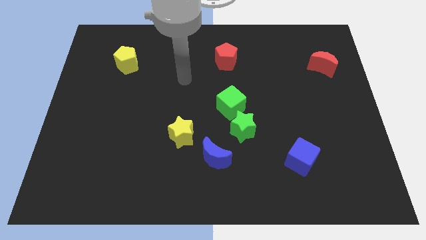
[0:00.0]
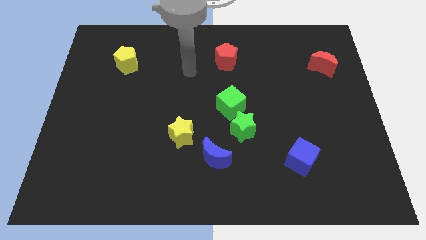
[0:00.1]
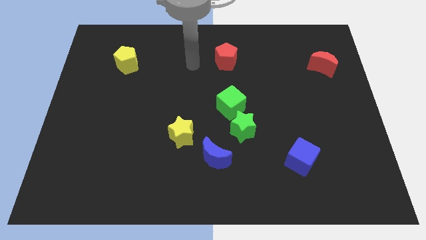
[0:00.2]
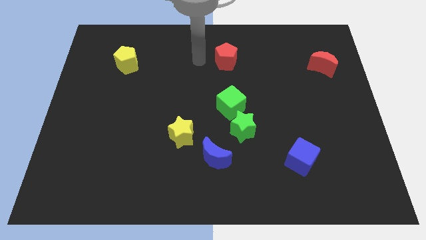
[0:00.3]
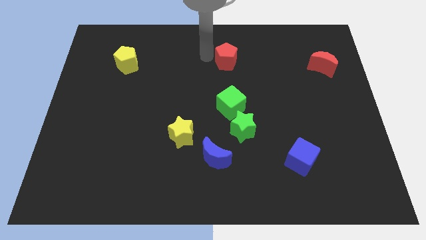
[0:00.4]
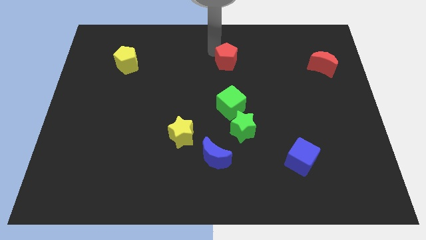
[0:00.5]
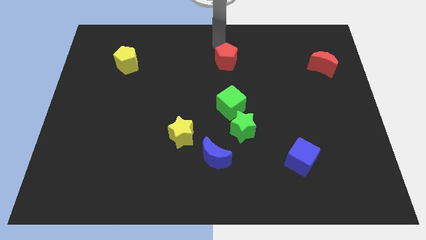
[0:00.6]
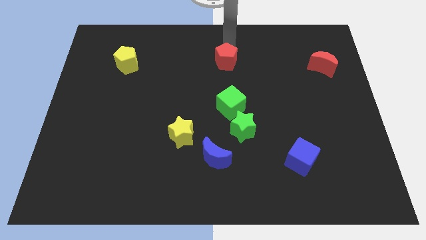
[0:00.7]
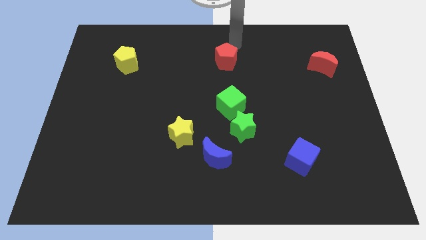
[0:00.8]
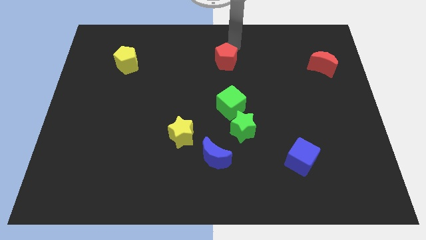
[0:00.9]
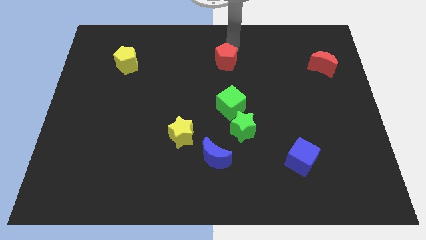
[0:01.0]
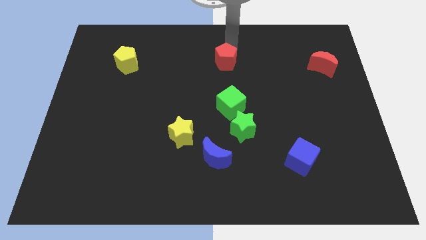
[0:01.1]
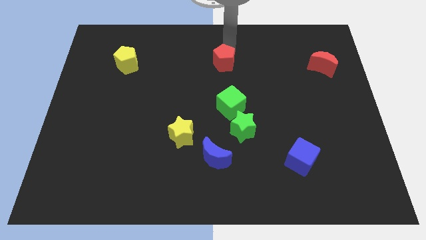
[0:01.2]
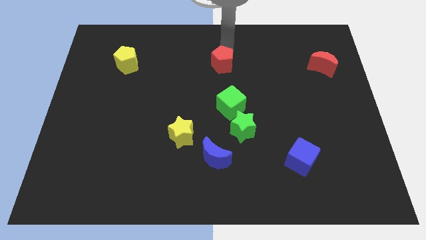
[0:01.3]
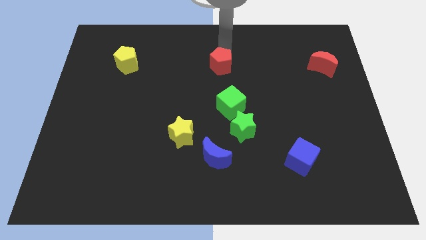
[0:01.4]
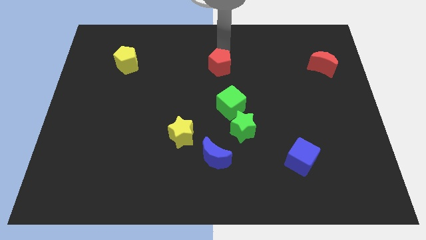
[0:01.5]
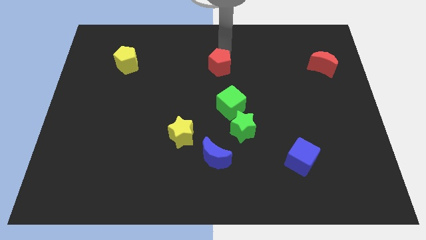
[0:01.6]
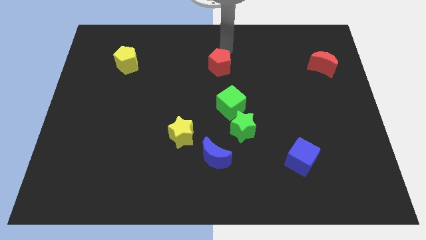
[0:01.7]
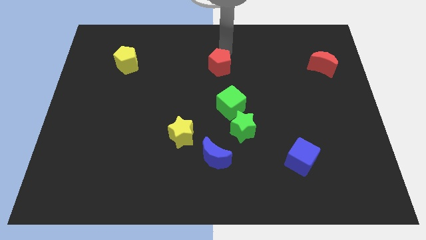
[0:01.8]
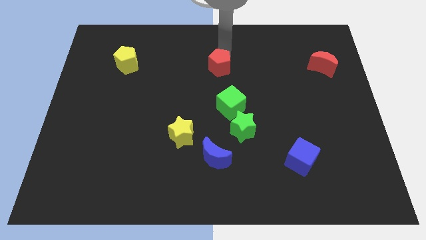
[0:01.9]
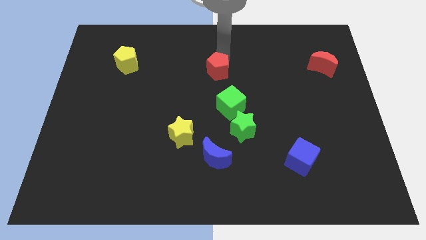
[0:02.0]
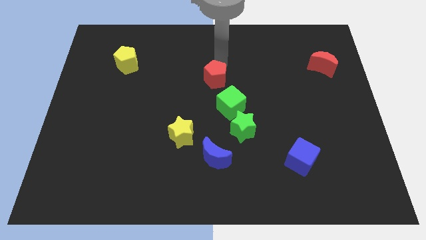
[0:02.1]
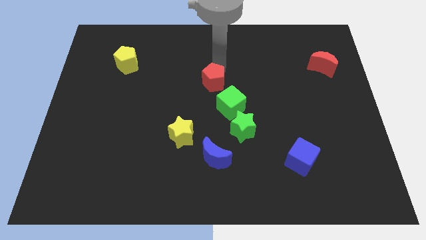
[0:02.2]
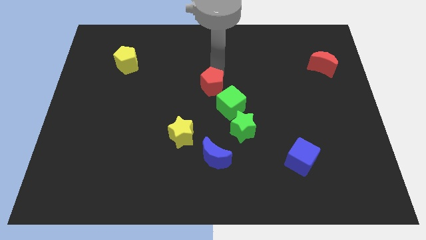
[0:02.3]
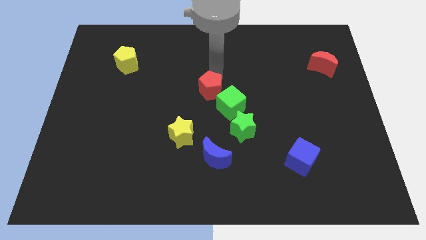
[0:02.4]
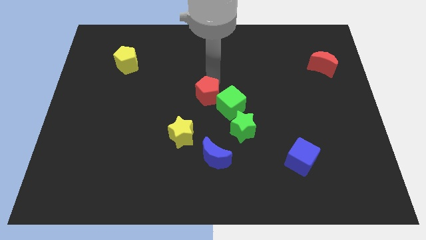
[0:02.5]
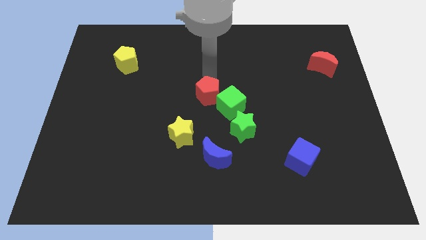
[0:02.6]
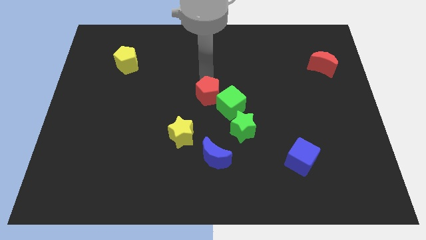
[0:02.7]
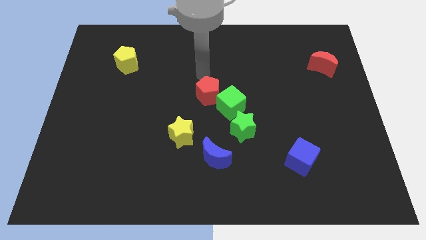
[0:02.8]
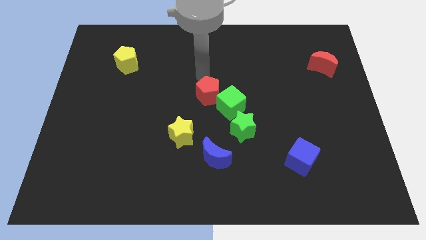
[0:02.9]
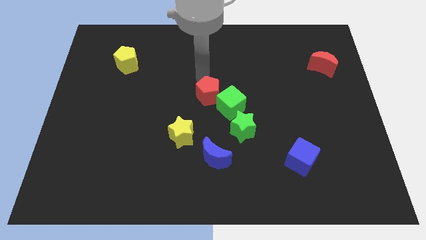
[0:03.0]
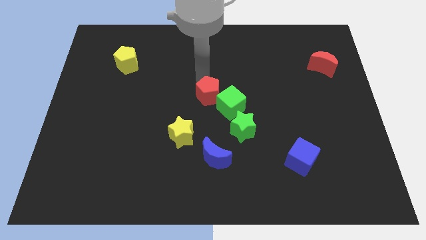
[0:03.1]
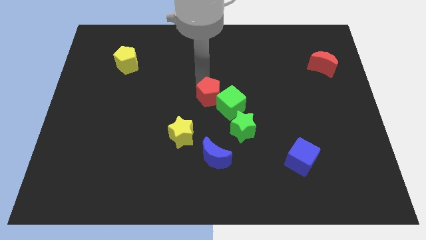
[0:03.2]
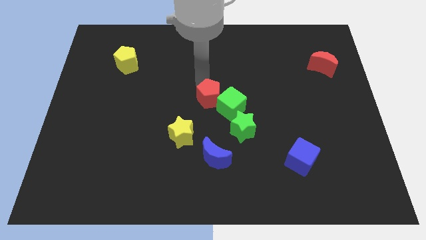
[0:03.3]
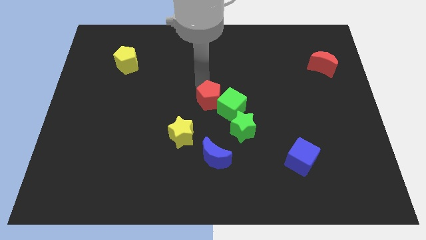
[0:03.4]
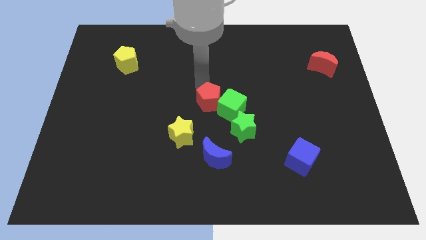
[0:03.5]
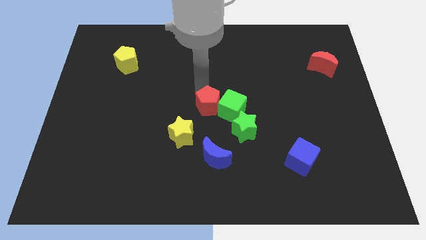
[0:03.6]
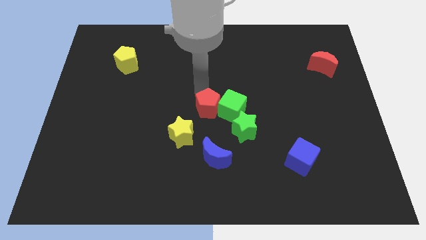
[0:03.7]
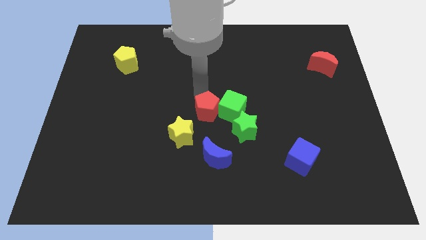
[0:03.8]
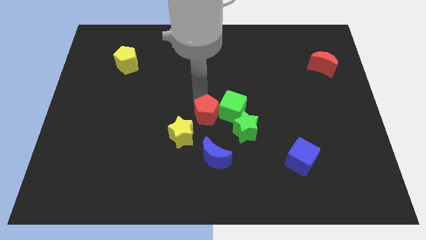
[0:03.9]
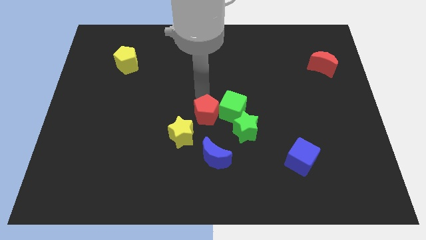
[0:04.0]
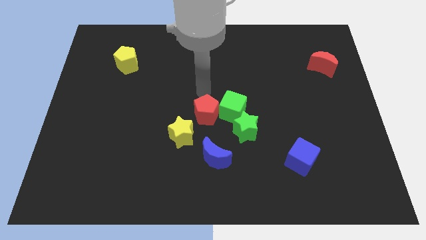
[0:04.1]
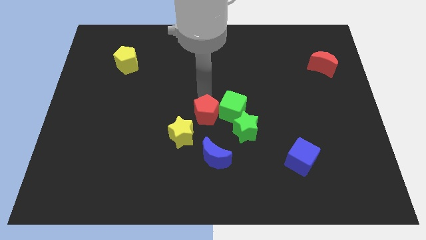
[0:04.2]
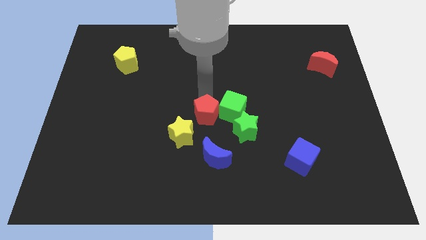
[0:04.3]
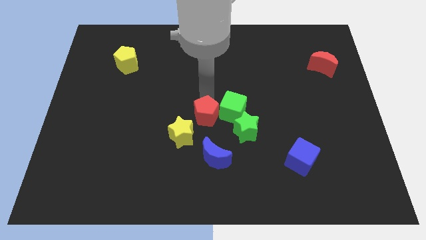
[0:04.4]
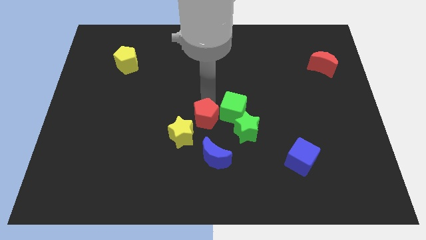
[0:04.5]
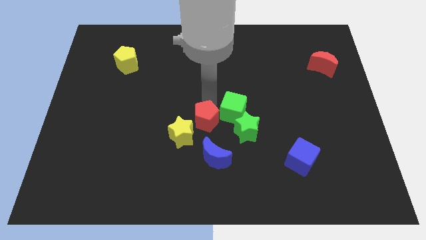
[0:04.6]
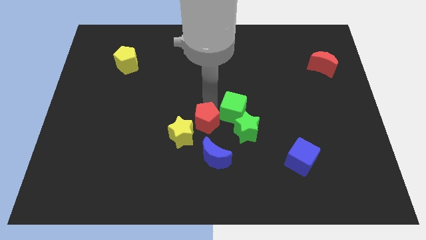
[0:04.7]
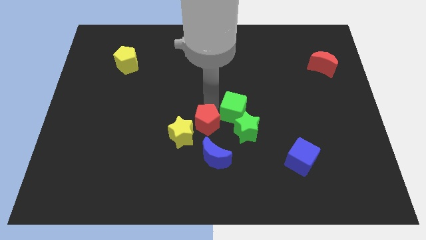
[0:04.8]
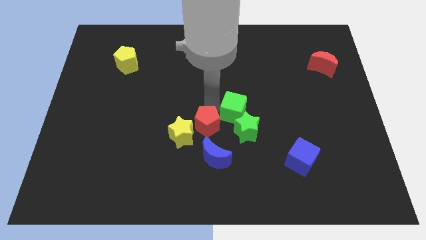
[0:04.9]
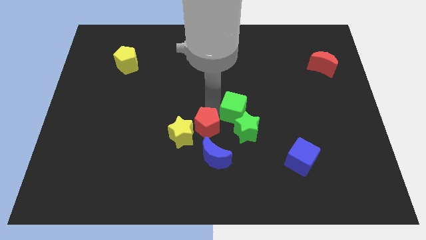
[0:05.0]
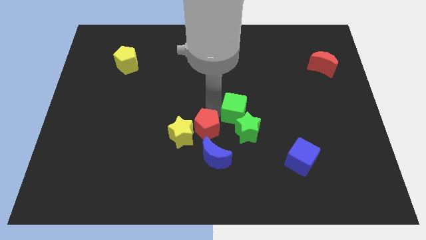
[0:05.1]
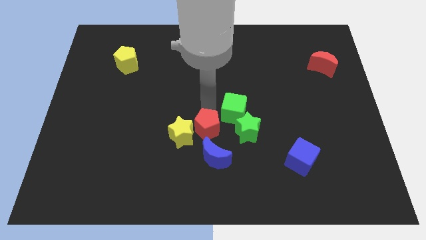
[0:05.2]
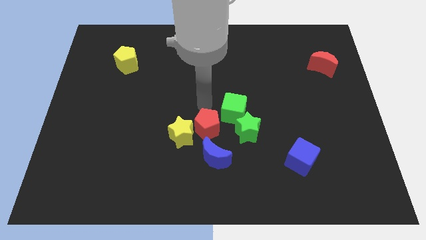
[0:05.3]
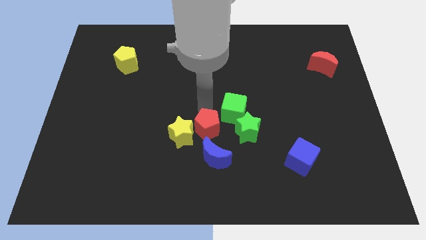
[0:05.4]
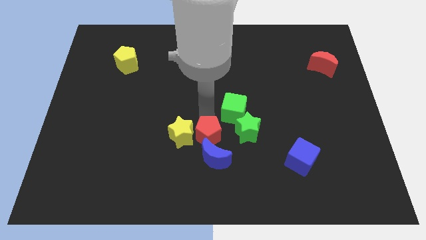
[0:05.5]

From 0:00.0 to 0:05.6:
move the red pentagon close to the blue moon

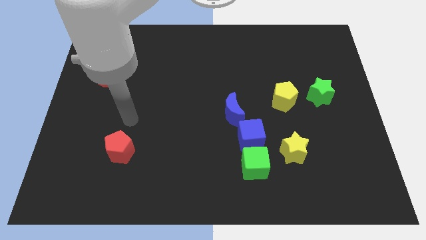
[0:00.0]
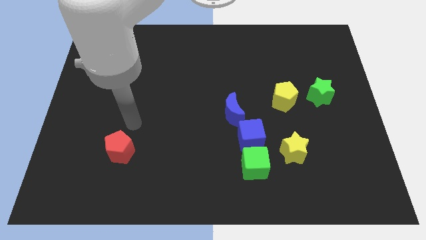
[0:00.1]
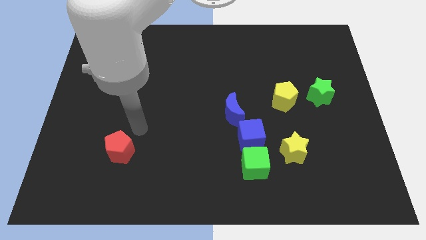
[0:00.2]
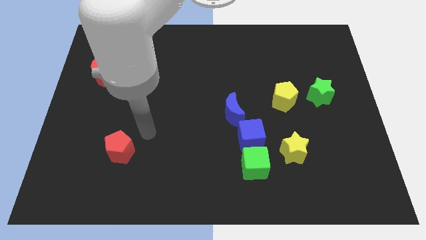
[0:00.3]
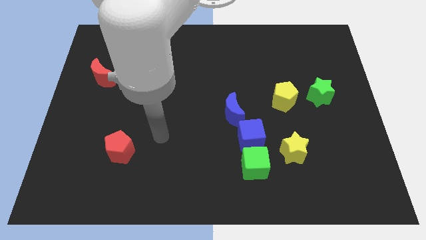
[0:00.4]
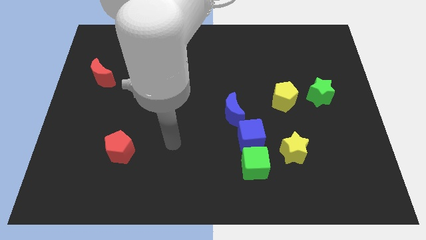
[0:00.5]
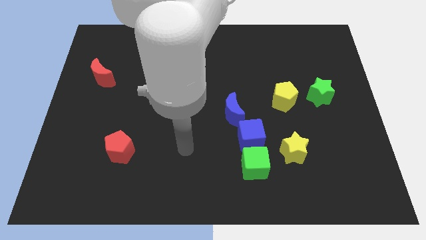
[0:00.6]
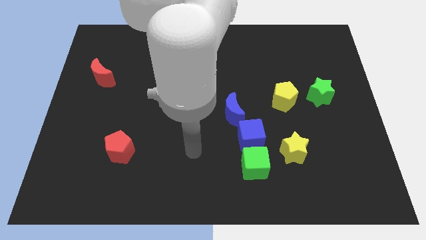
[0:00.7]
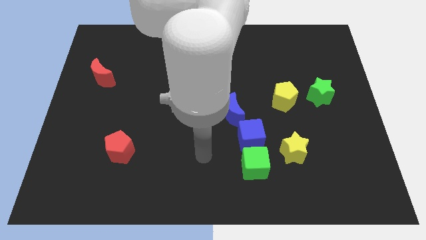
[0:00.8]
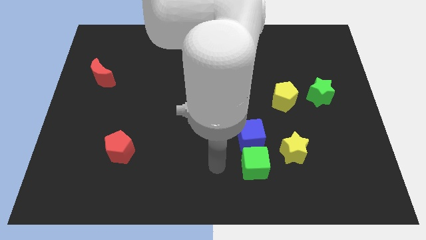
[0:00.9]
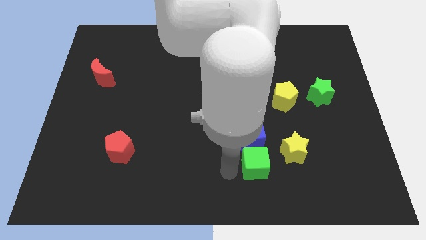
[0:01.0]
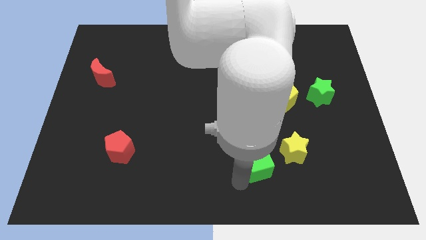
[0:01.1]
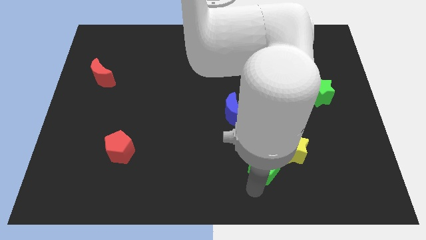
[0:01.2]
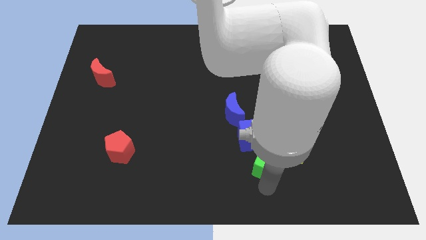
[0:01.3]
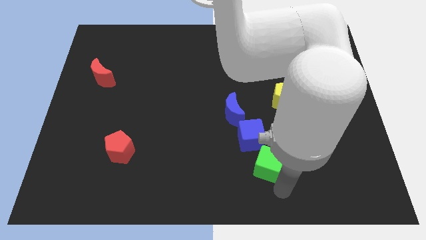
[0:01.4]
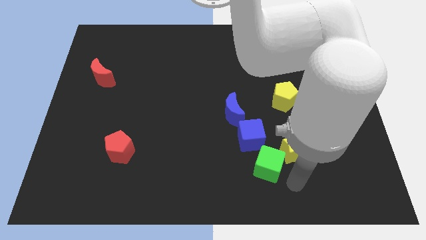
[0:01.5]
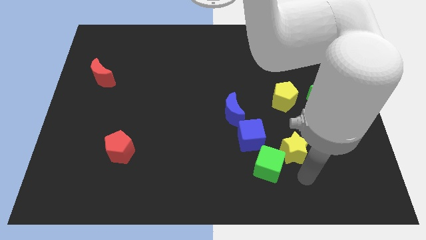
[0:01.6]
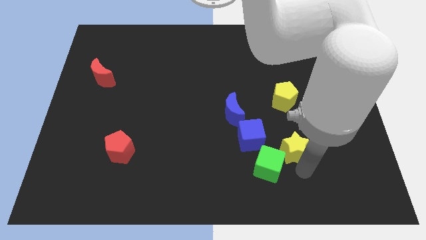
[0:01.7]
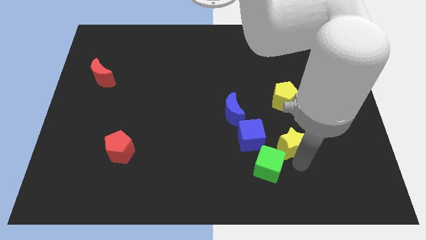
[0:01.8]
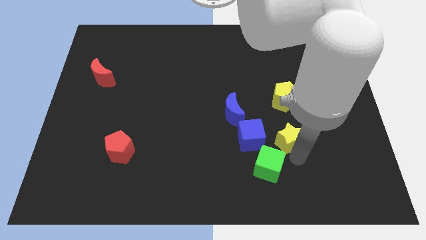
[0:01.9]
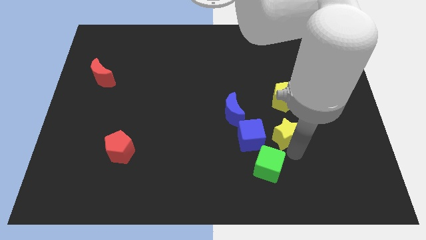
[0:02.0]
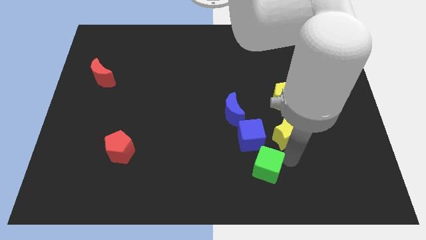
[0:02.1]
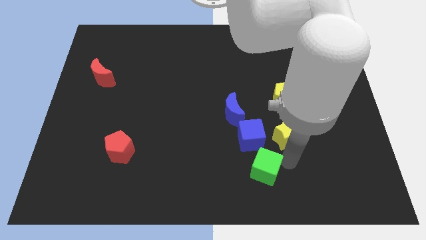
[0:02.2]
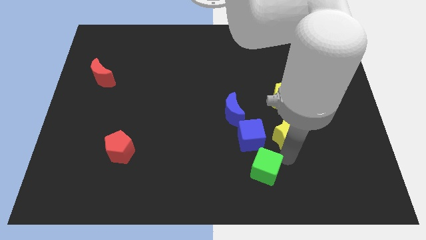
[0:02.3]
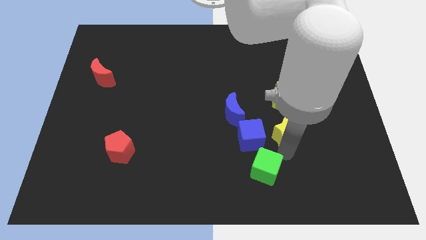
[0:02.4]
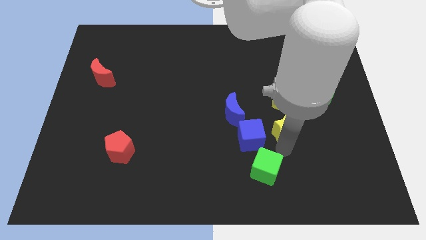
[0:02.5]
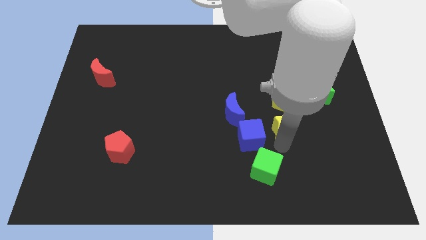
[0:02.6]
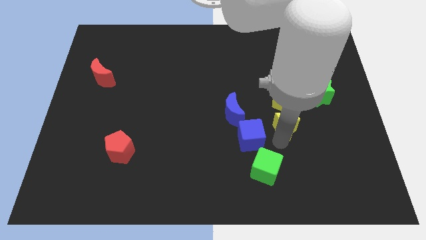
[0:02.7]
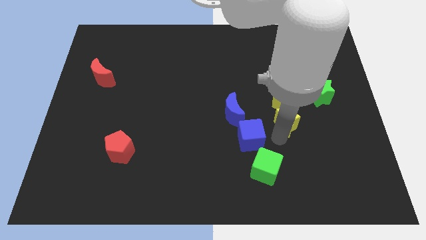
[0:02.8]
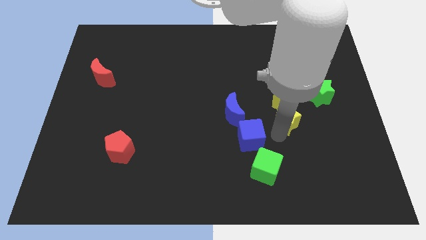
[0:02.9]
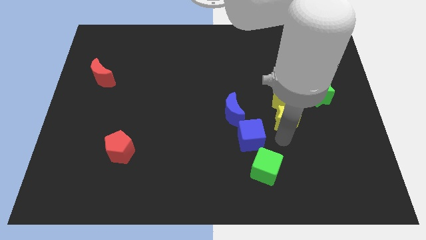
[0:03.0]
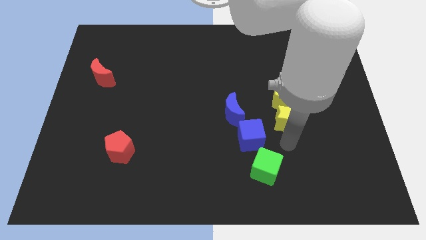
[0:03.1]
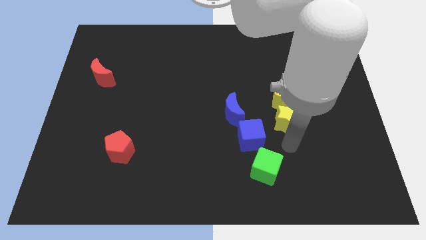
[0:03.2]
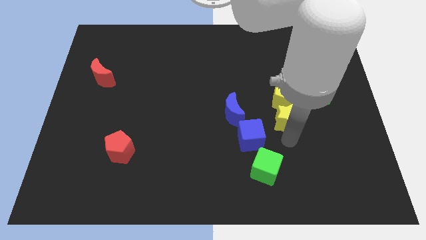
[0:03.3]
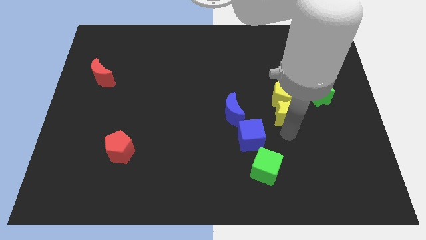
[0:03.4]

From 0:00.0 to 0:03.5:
slide the yellow star close to the yellow pentagon
